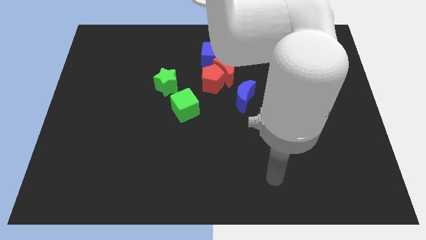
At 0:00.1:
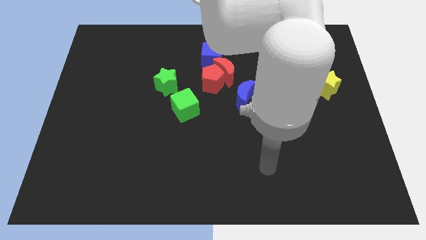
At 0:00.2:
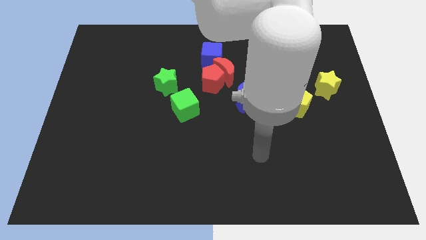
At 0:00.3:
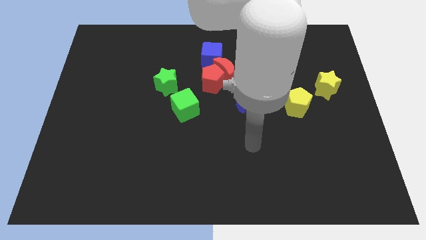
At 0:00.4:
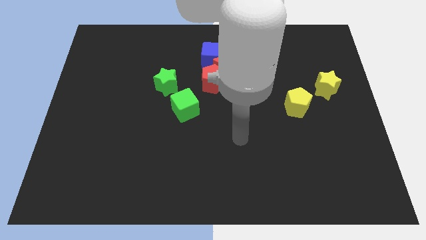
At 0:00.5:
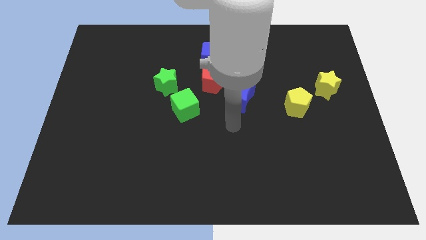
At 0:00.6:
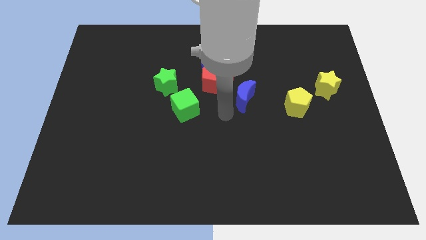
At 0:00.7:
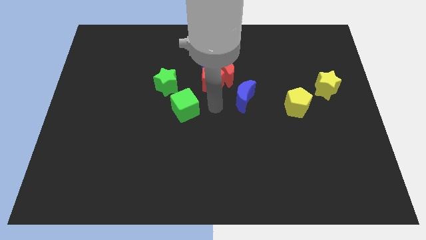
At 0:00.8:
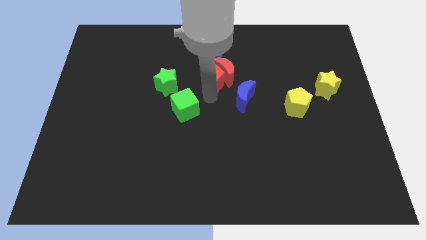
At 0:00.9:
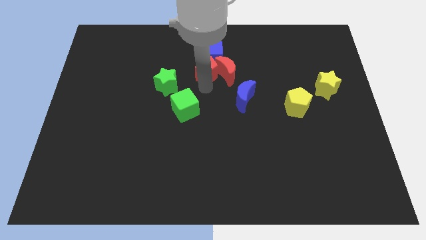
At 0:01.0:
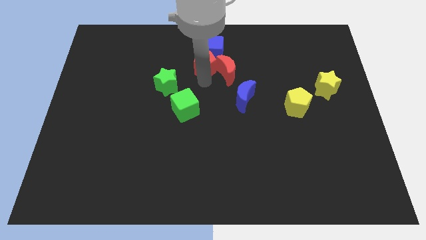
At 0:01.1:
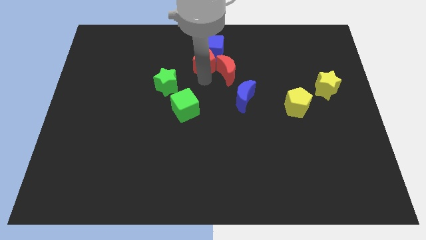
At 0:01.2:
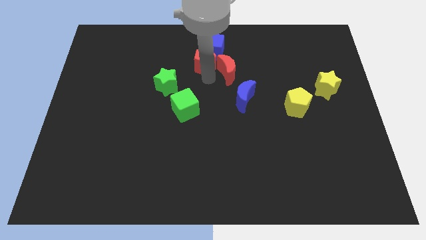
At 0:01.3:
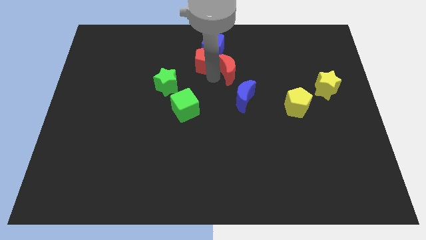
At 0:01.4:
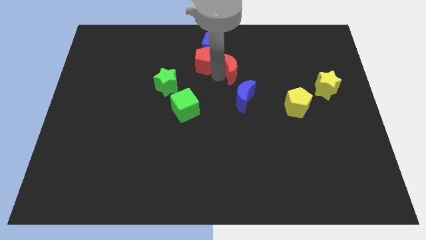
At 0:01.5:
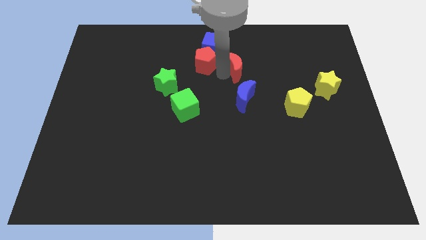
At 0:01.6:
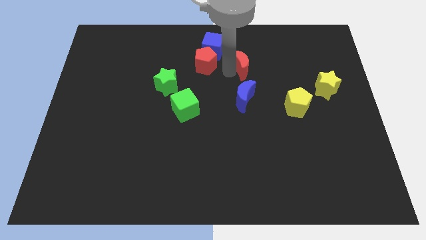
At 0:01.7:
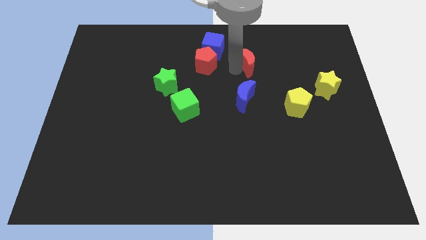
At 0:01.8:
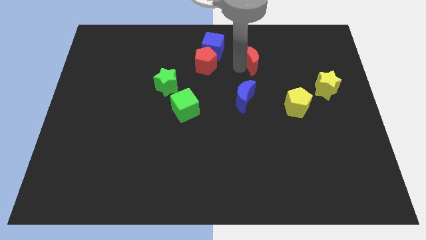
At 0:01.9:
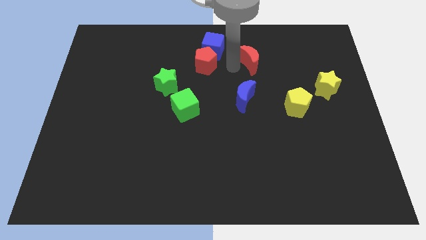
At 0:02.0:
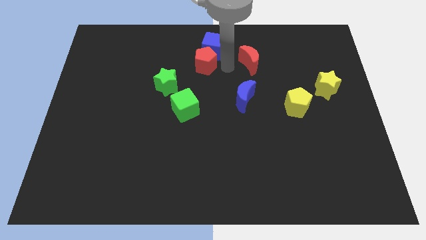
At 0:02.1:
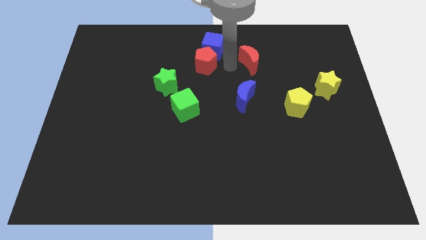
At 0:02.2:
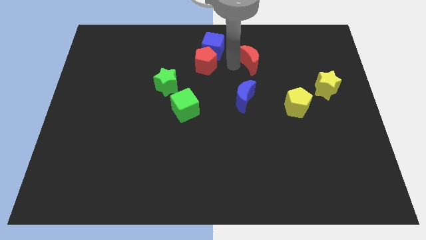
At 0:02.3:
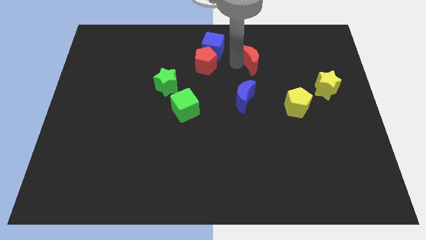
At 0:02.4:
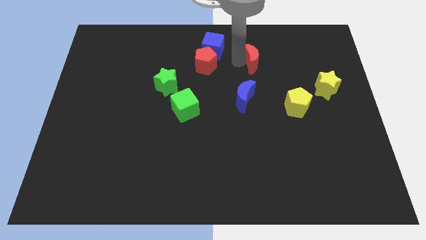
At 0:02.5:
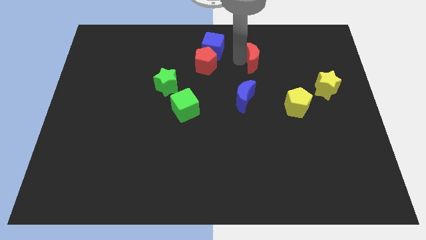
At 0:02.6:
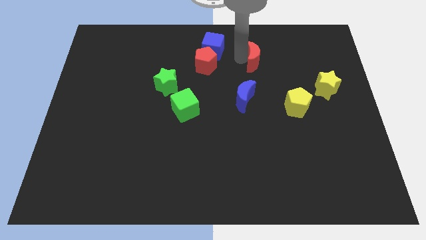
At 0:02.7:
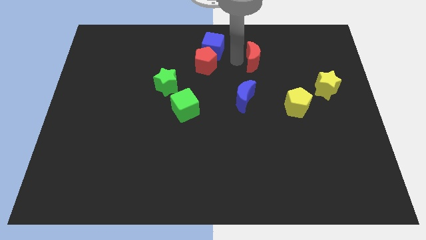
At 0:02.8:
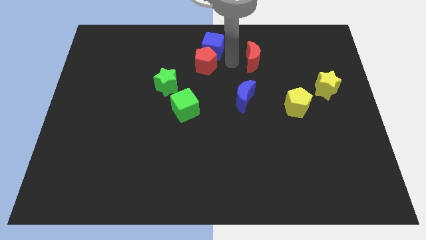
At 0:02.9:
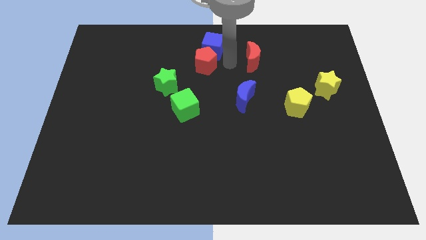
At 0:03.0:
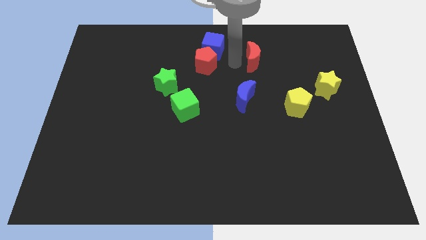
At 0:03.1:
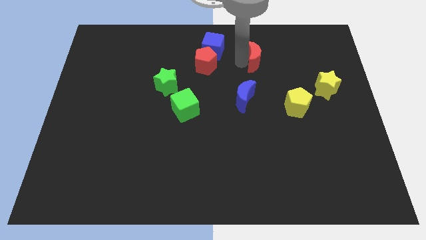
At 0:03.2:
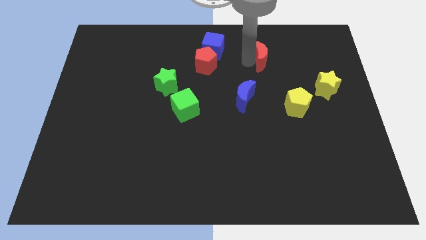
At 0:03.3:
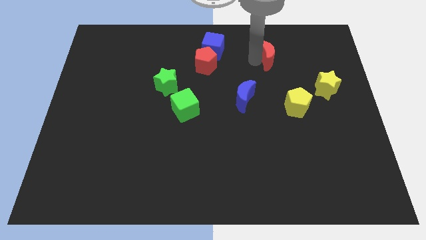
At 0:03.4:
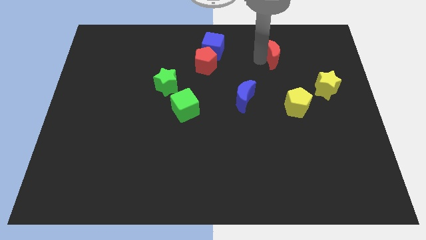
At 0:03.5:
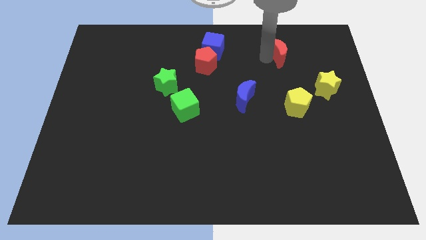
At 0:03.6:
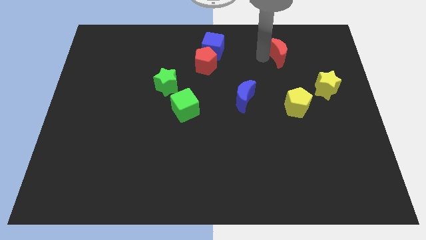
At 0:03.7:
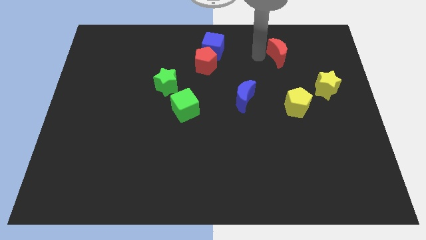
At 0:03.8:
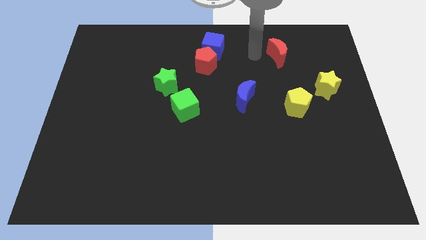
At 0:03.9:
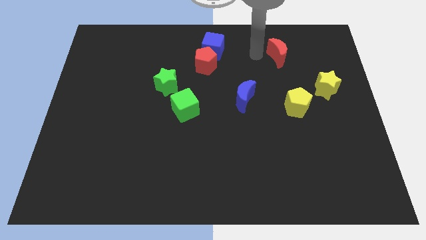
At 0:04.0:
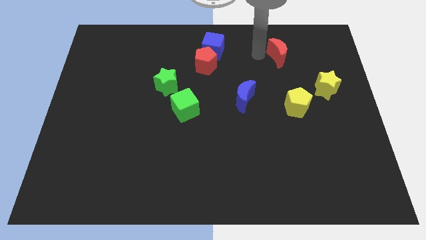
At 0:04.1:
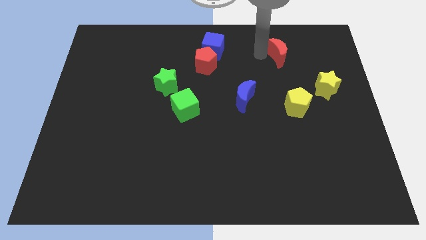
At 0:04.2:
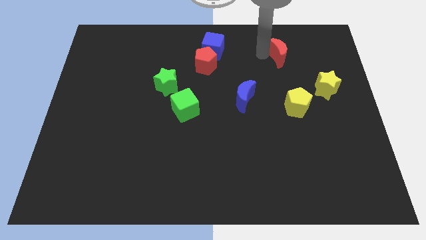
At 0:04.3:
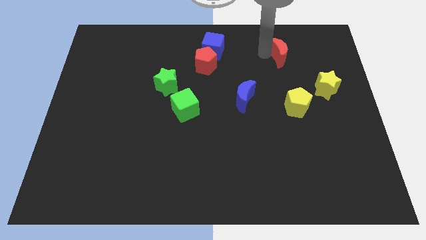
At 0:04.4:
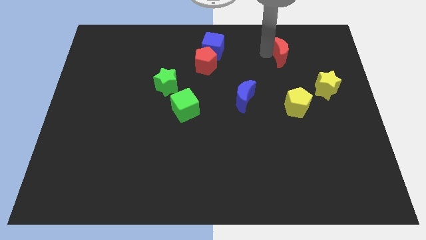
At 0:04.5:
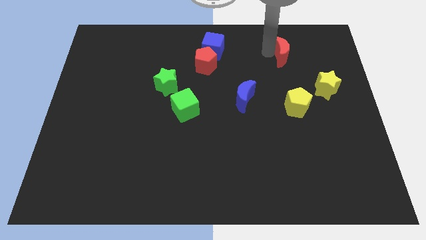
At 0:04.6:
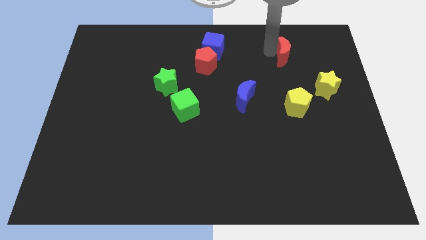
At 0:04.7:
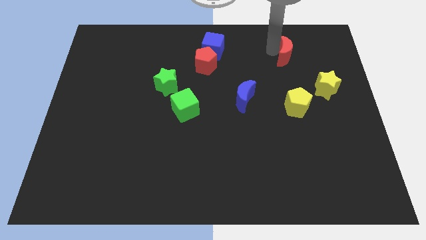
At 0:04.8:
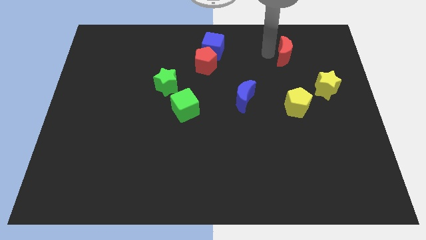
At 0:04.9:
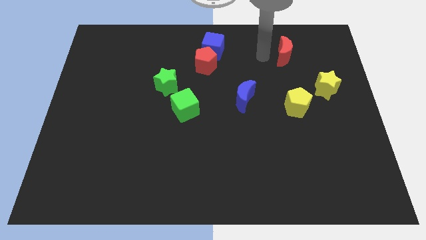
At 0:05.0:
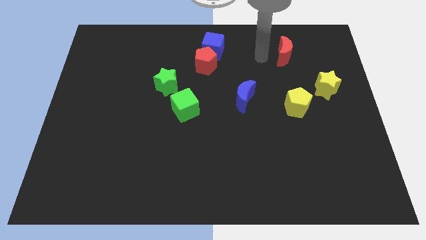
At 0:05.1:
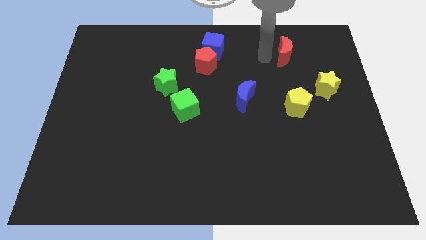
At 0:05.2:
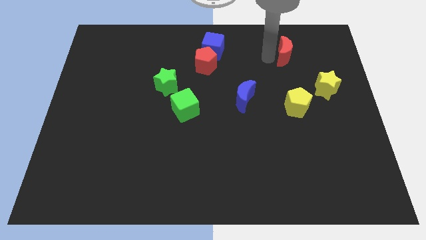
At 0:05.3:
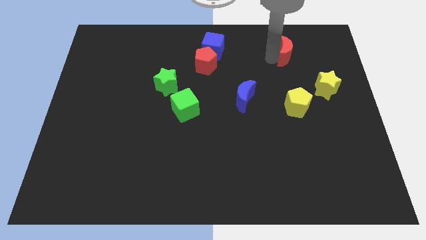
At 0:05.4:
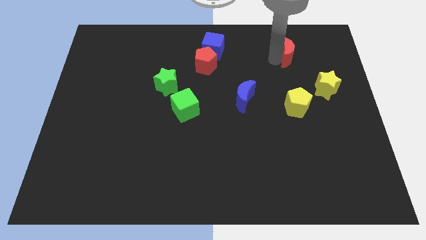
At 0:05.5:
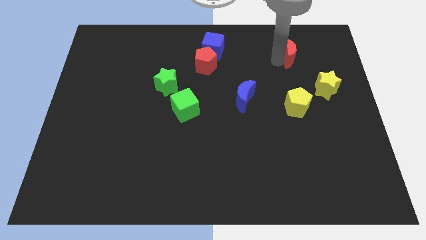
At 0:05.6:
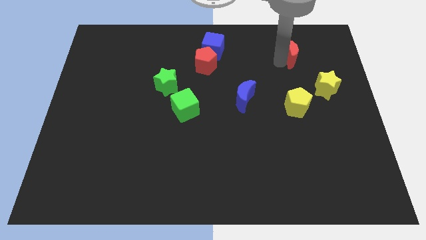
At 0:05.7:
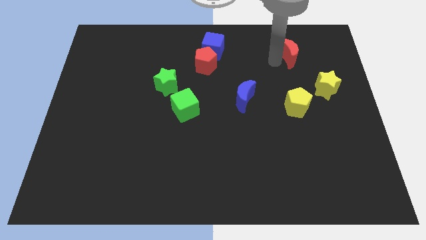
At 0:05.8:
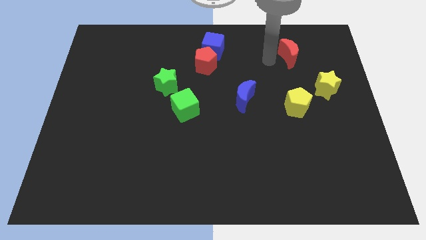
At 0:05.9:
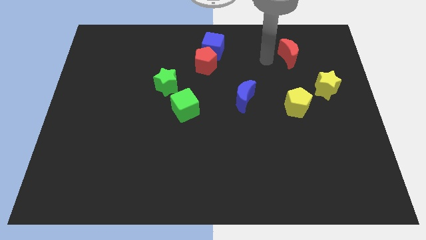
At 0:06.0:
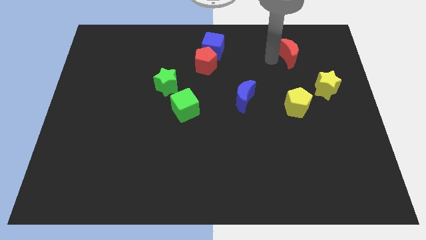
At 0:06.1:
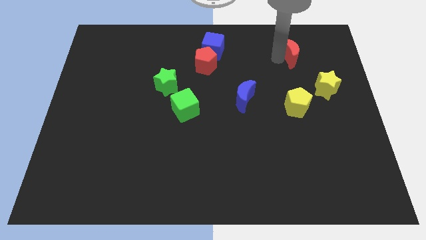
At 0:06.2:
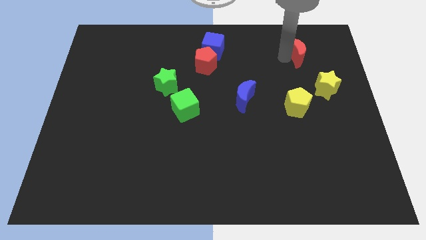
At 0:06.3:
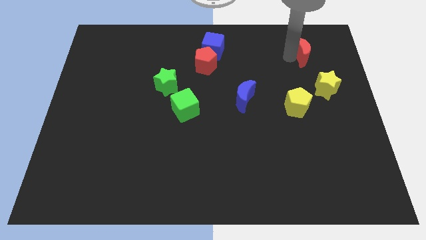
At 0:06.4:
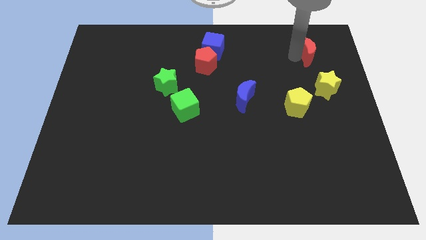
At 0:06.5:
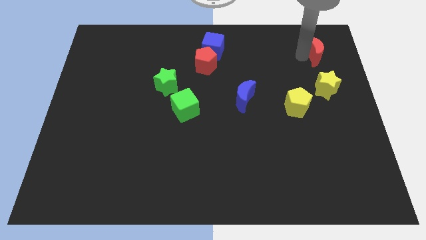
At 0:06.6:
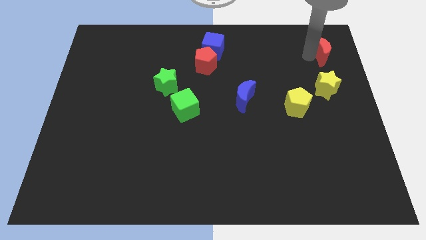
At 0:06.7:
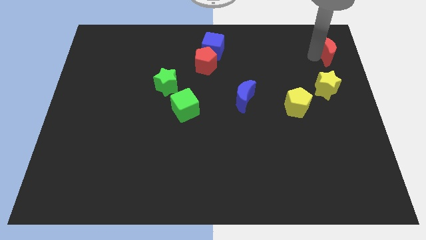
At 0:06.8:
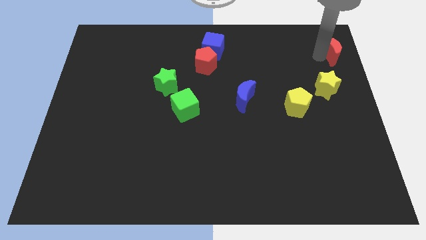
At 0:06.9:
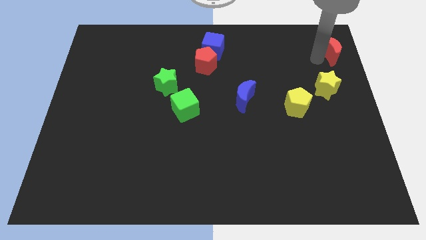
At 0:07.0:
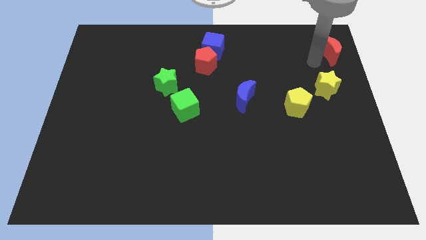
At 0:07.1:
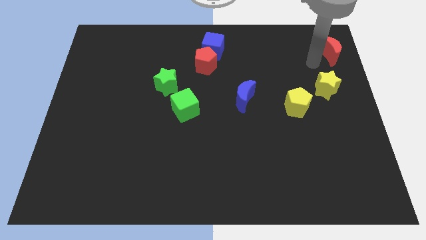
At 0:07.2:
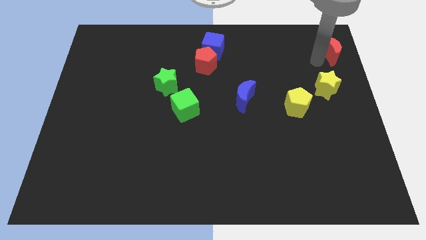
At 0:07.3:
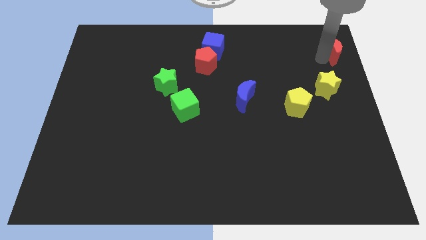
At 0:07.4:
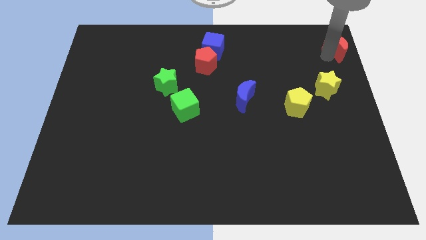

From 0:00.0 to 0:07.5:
push the red moon to the top right corner
